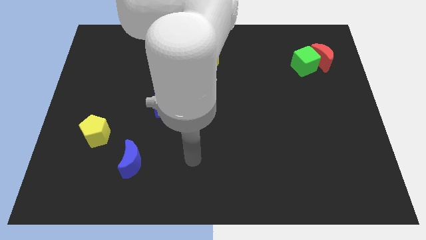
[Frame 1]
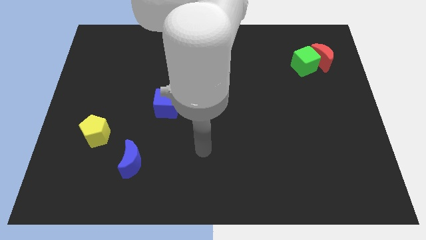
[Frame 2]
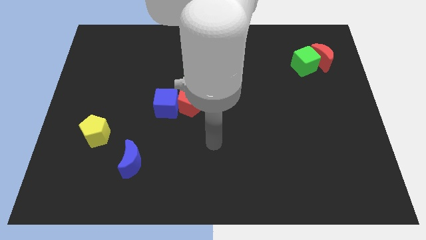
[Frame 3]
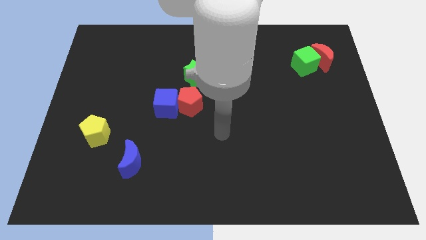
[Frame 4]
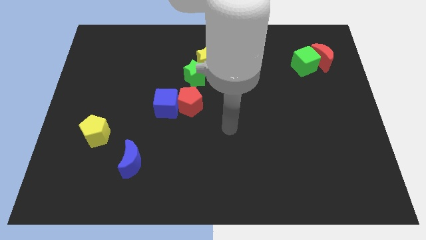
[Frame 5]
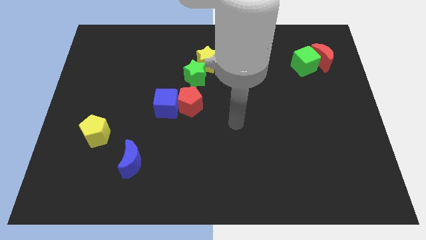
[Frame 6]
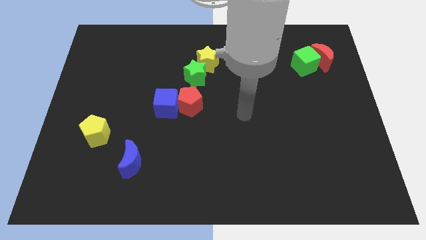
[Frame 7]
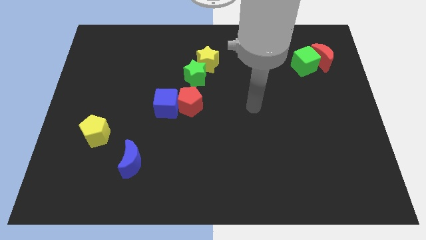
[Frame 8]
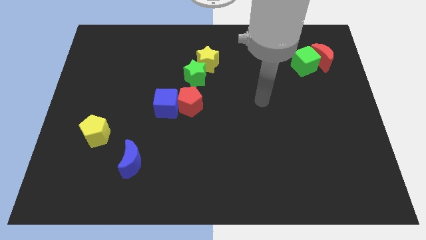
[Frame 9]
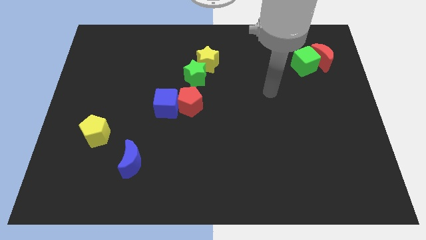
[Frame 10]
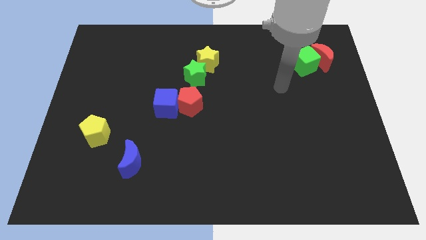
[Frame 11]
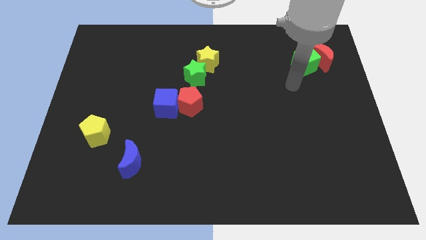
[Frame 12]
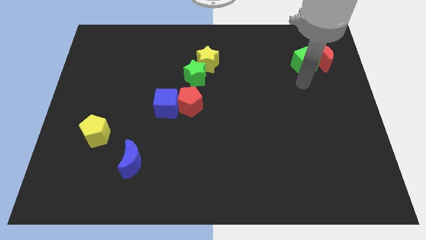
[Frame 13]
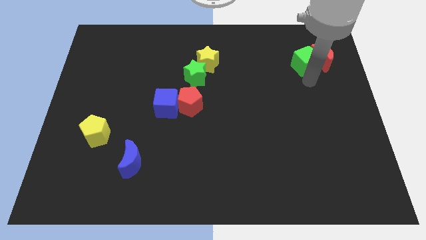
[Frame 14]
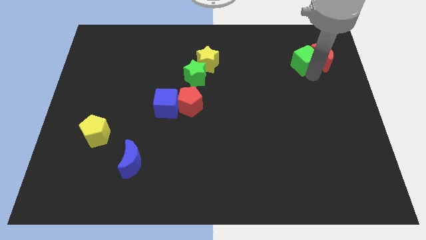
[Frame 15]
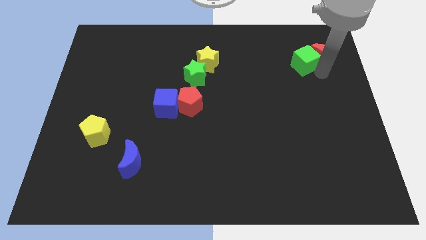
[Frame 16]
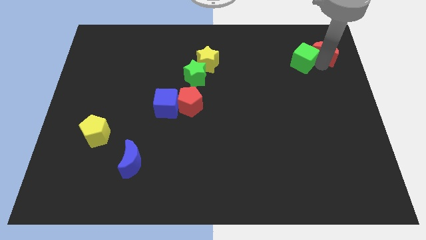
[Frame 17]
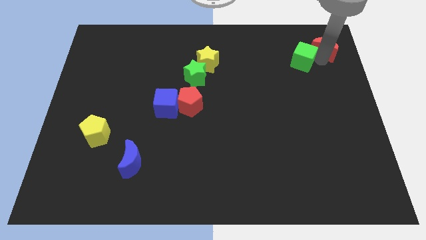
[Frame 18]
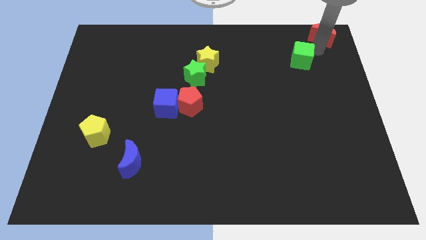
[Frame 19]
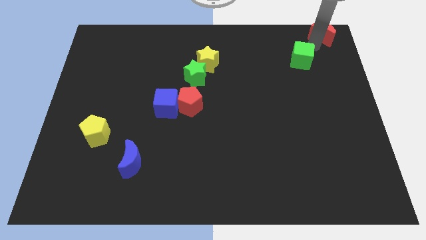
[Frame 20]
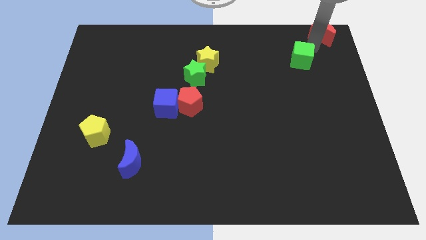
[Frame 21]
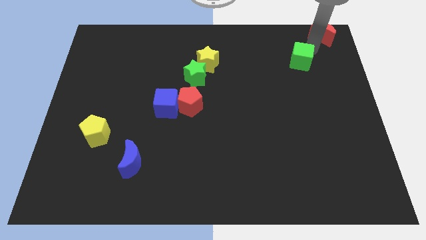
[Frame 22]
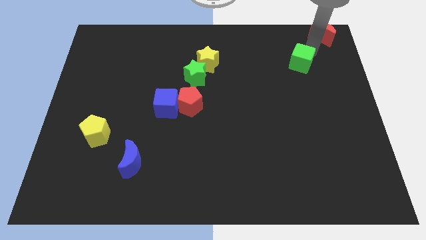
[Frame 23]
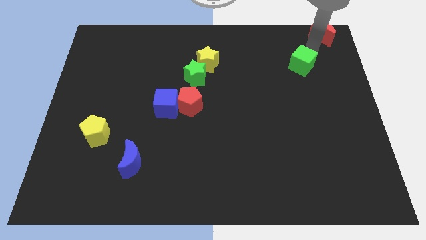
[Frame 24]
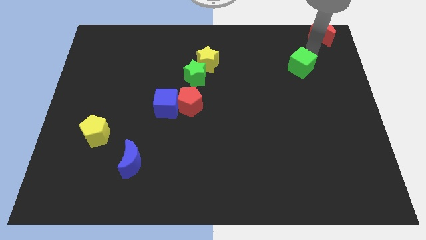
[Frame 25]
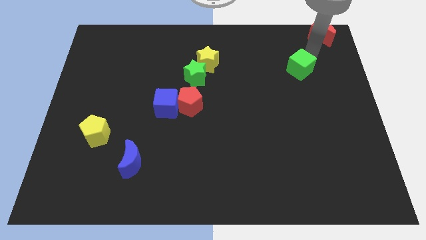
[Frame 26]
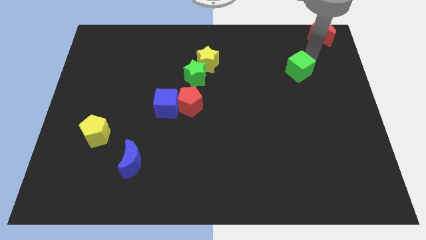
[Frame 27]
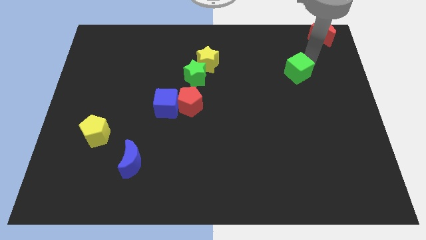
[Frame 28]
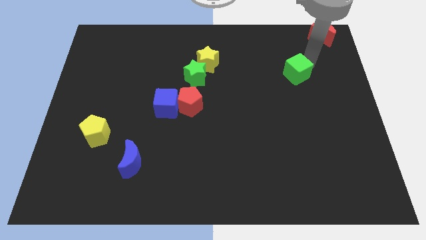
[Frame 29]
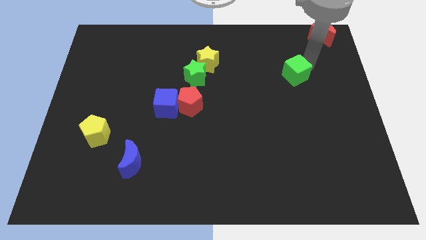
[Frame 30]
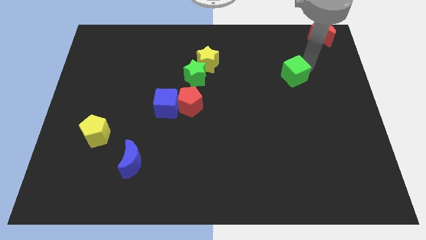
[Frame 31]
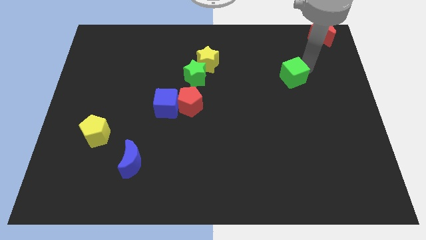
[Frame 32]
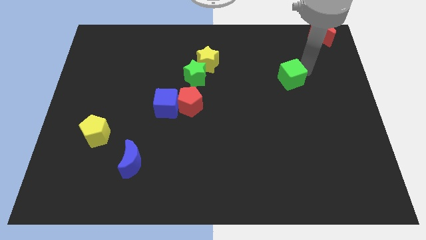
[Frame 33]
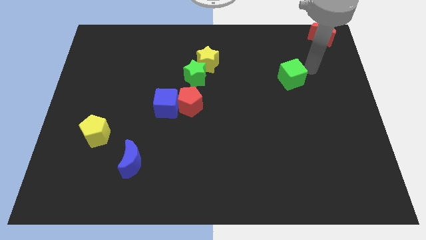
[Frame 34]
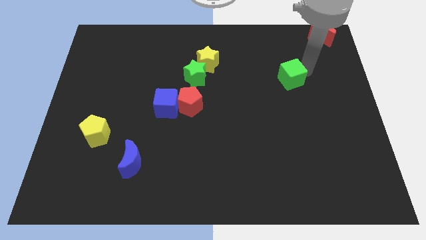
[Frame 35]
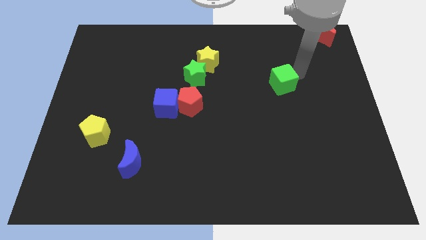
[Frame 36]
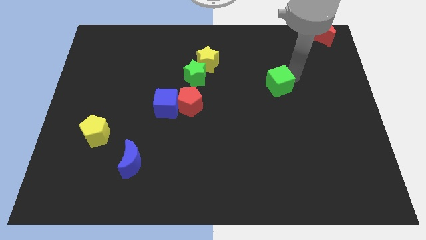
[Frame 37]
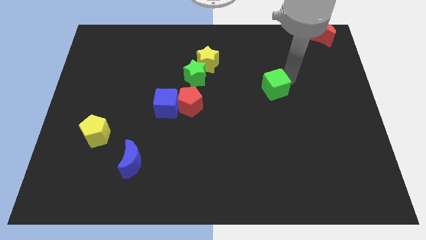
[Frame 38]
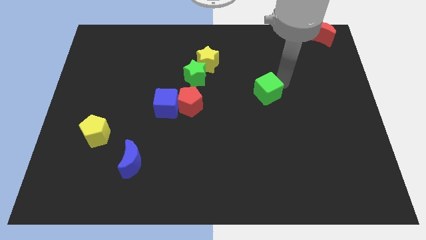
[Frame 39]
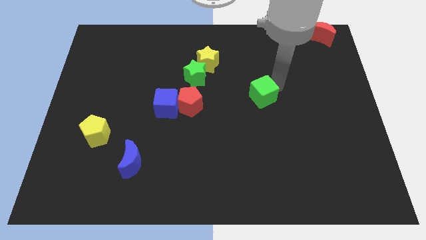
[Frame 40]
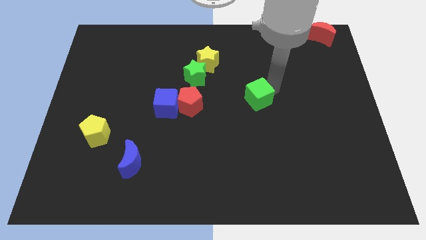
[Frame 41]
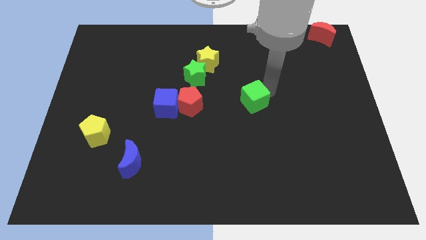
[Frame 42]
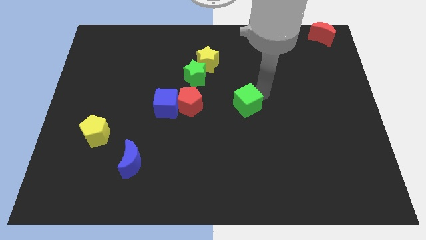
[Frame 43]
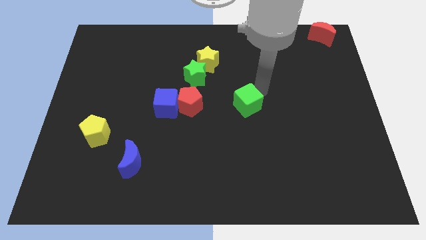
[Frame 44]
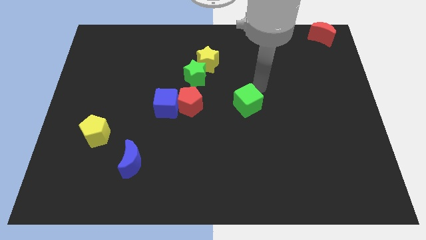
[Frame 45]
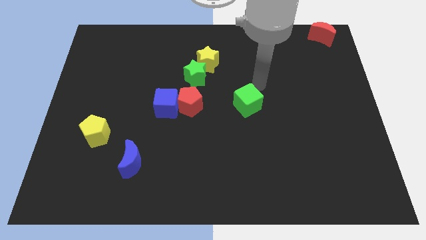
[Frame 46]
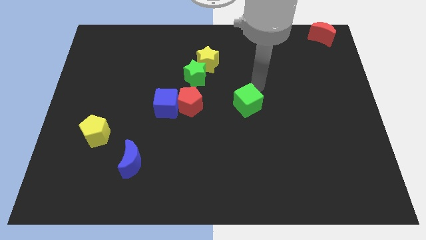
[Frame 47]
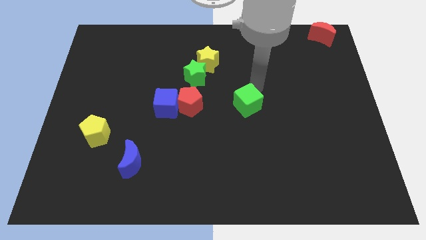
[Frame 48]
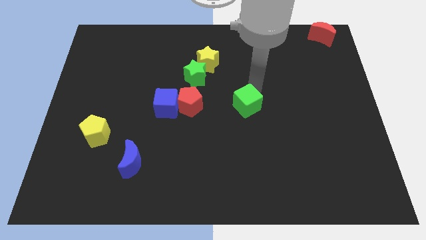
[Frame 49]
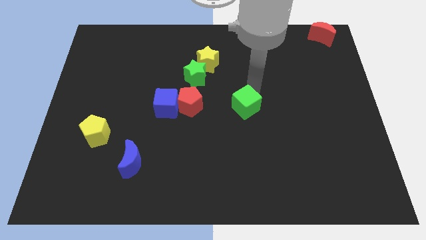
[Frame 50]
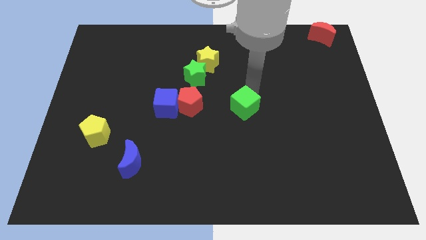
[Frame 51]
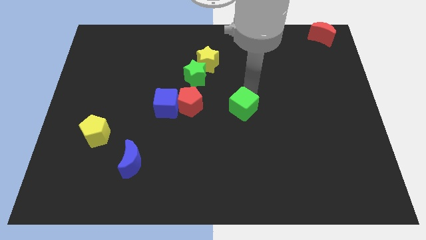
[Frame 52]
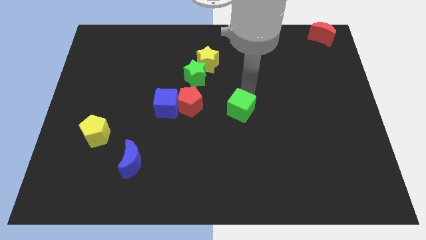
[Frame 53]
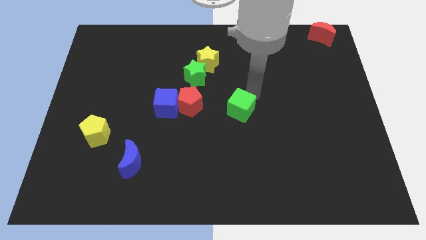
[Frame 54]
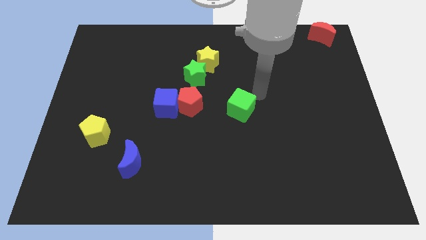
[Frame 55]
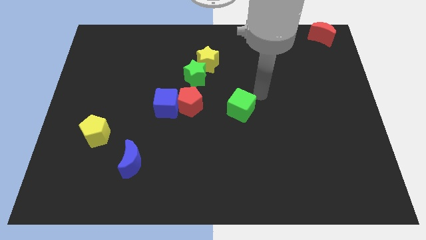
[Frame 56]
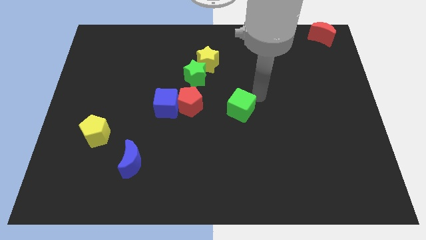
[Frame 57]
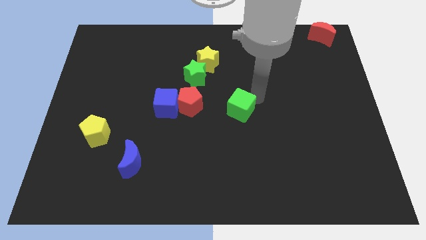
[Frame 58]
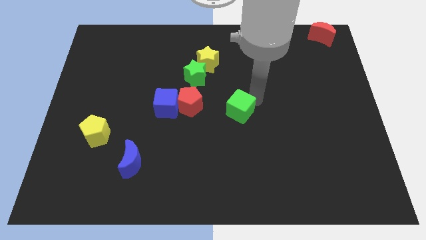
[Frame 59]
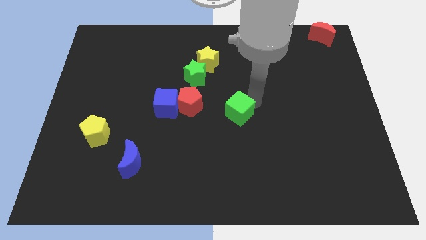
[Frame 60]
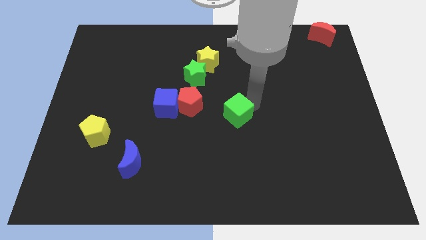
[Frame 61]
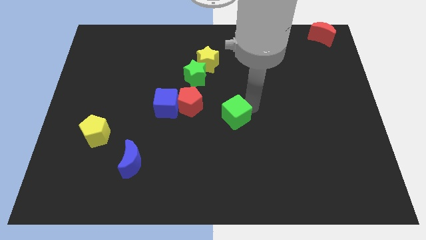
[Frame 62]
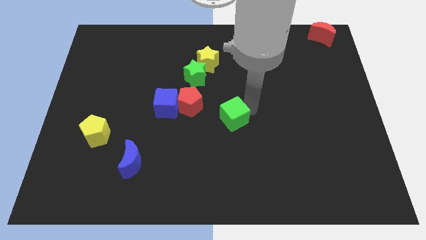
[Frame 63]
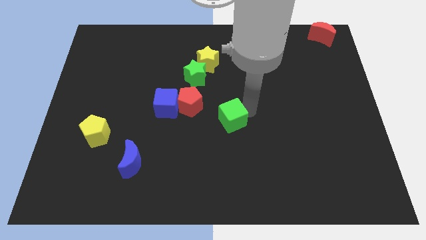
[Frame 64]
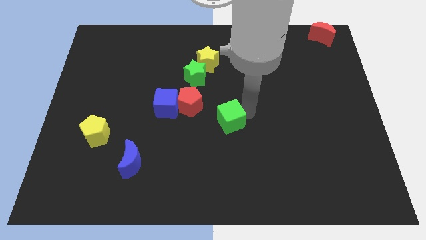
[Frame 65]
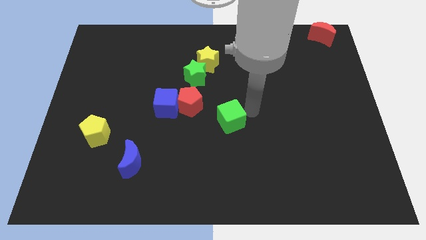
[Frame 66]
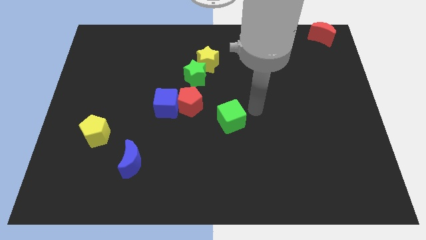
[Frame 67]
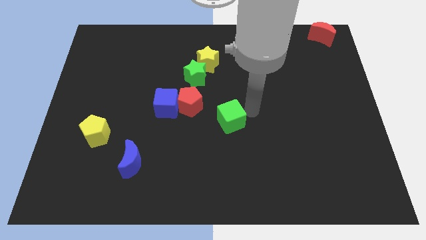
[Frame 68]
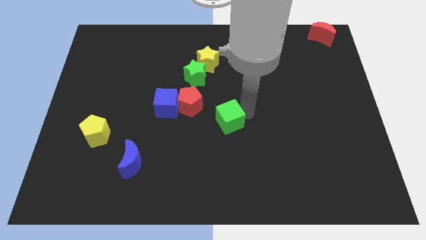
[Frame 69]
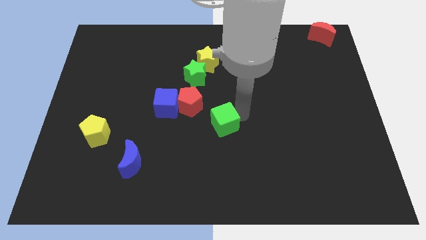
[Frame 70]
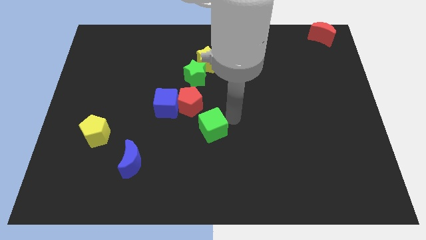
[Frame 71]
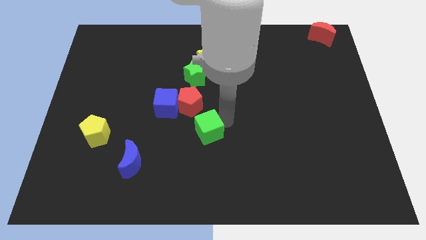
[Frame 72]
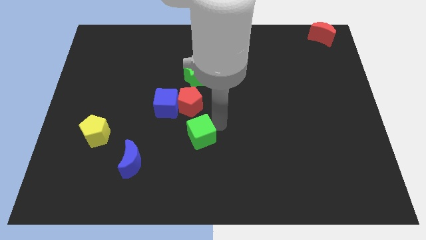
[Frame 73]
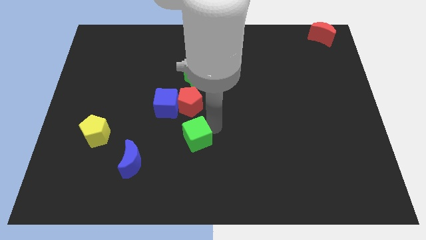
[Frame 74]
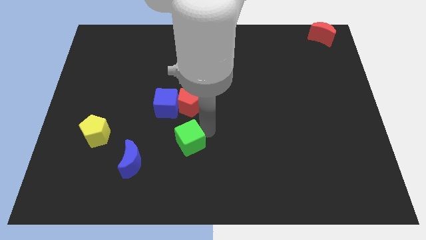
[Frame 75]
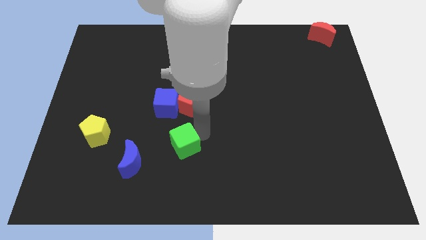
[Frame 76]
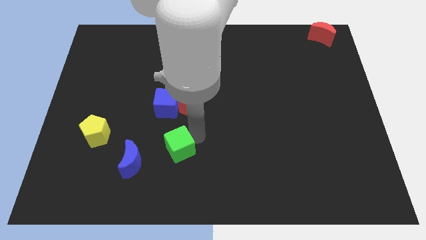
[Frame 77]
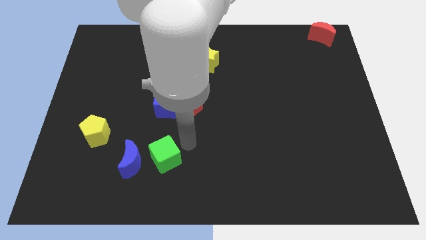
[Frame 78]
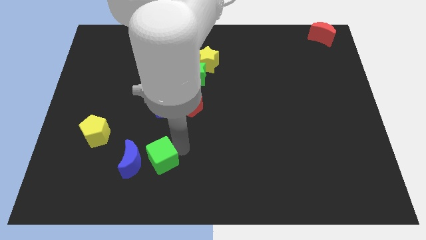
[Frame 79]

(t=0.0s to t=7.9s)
move the green cube to the blue moon

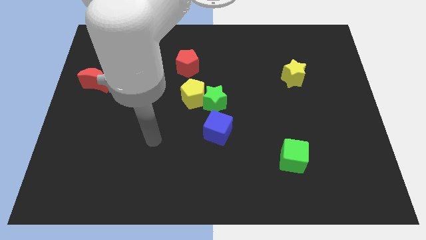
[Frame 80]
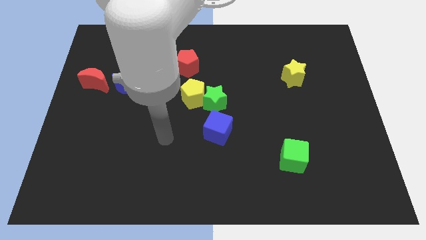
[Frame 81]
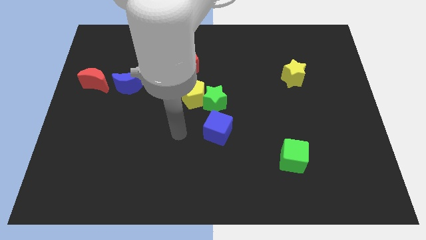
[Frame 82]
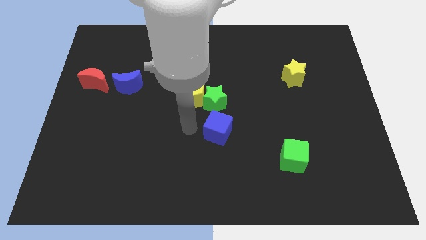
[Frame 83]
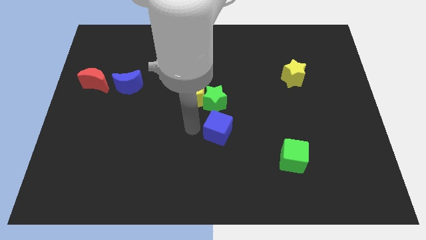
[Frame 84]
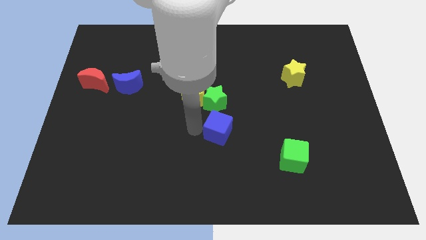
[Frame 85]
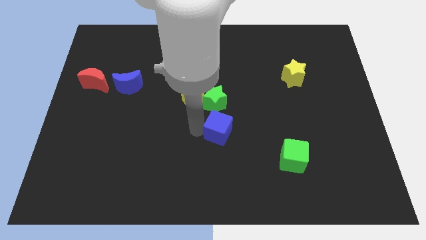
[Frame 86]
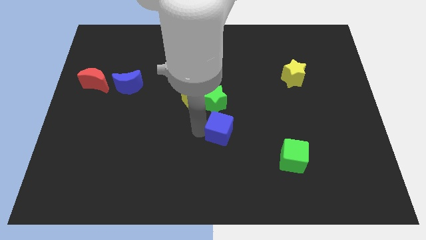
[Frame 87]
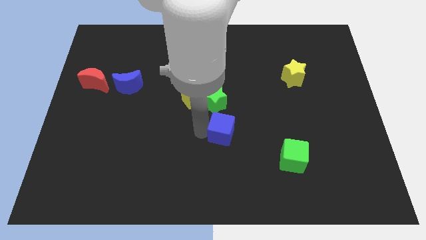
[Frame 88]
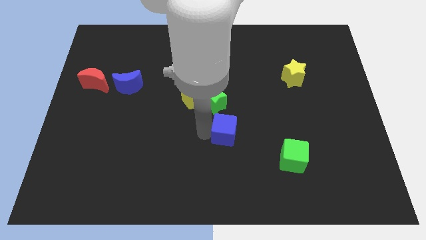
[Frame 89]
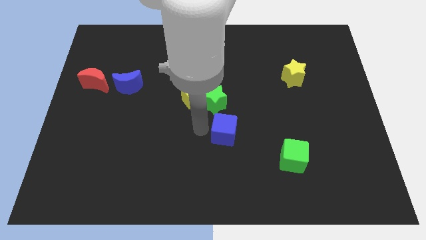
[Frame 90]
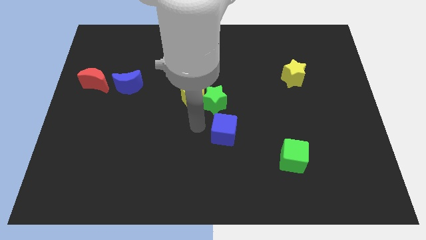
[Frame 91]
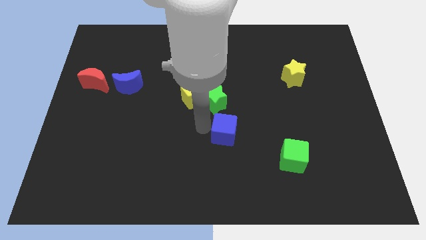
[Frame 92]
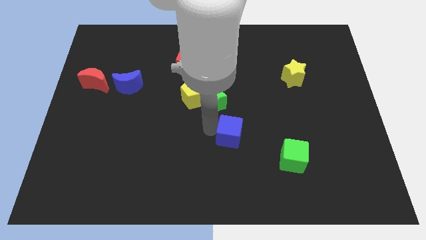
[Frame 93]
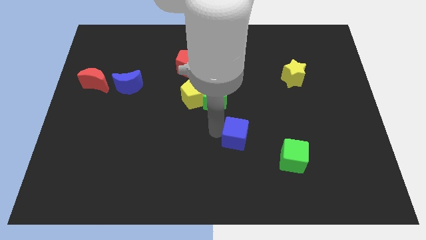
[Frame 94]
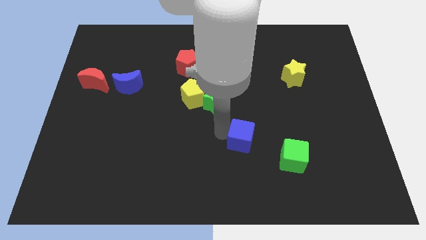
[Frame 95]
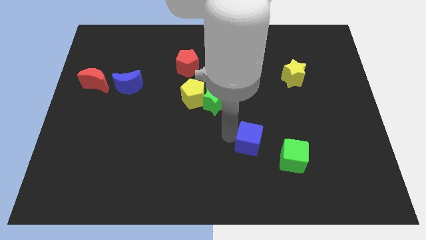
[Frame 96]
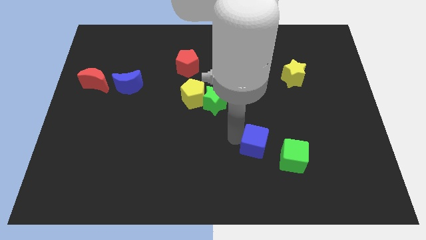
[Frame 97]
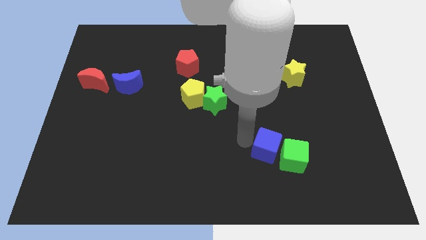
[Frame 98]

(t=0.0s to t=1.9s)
push the blue cube close to the green cube
